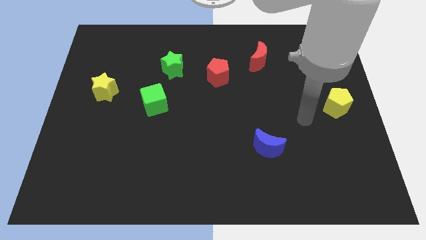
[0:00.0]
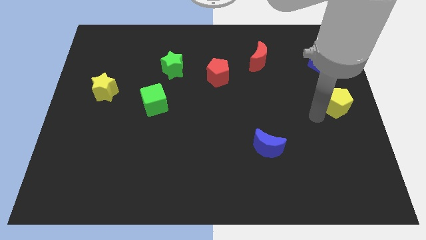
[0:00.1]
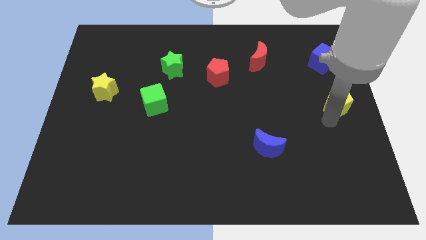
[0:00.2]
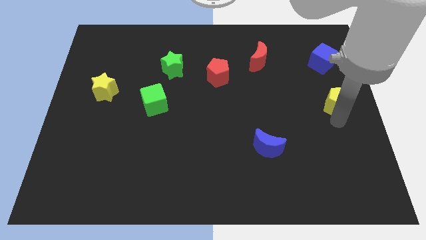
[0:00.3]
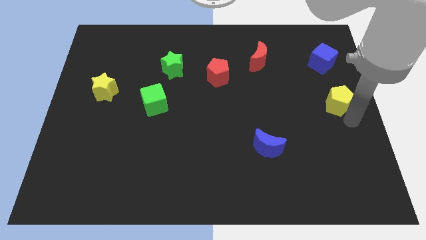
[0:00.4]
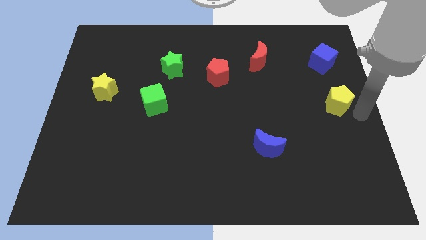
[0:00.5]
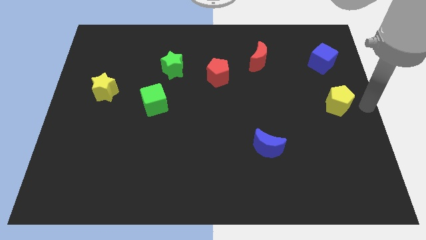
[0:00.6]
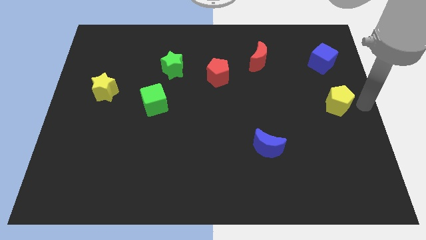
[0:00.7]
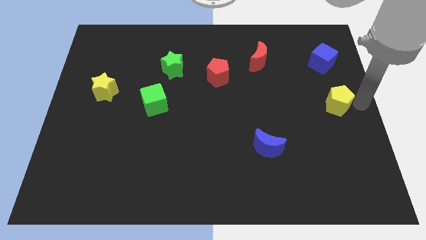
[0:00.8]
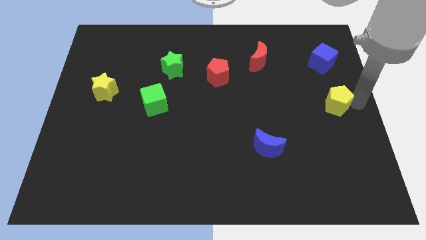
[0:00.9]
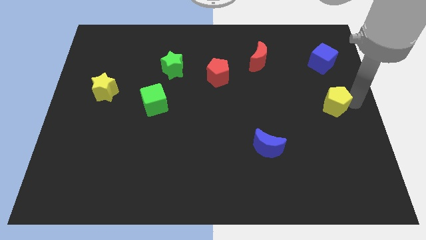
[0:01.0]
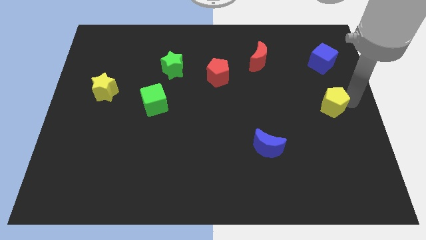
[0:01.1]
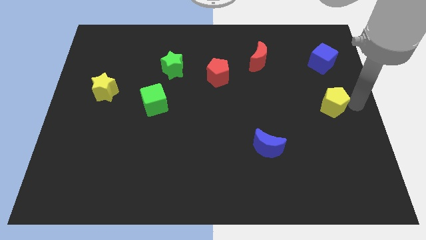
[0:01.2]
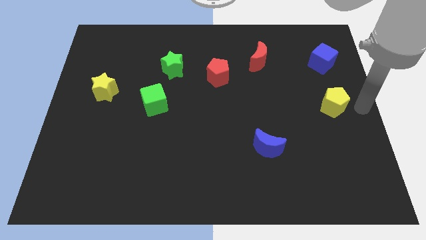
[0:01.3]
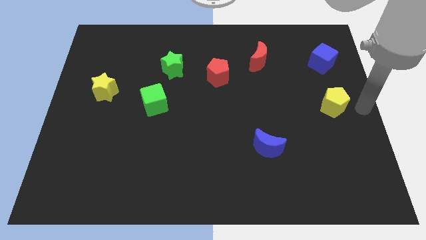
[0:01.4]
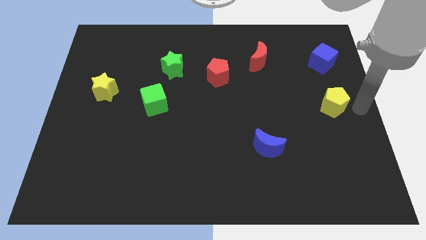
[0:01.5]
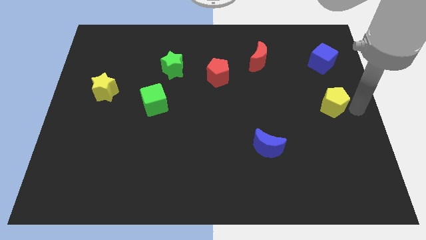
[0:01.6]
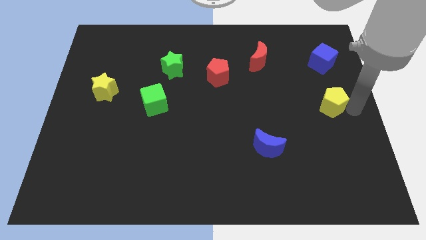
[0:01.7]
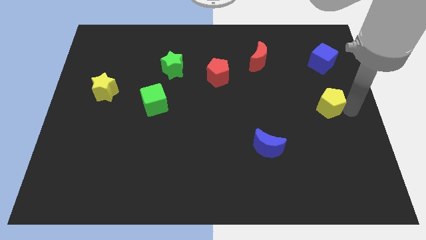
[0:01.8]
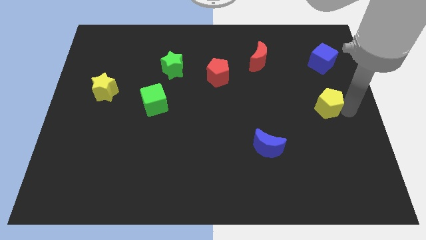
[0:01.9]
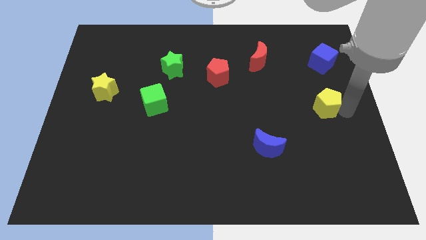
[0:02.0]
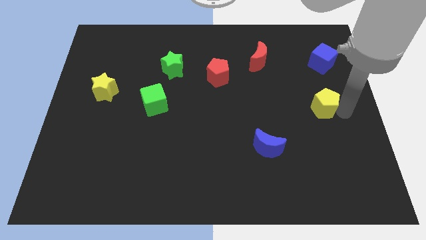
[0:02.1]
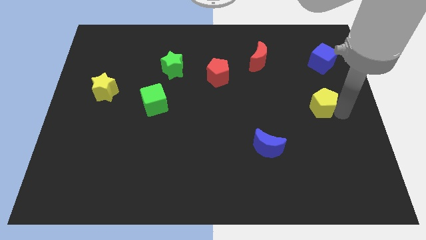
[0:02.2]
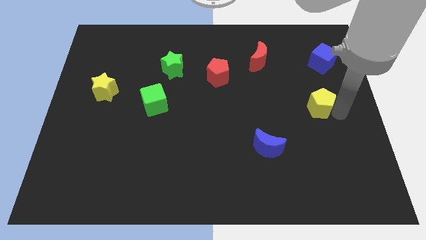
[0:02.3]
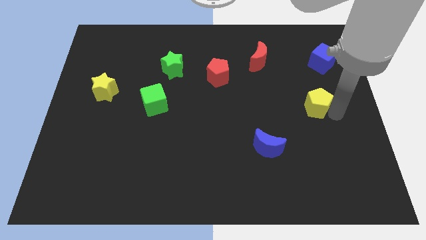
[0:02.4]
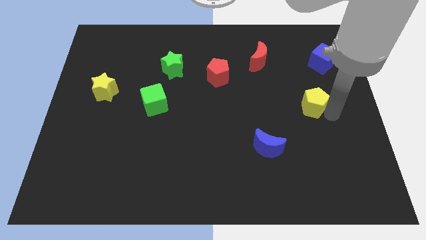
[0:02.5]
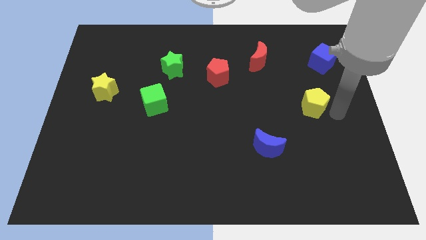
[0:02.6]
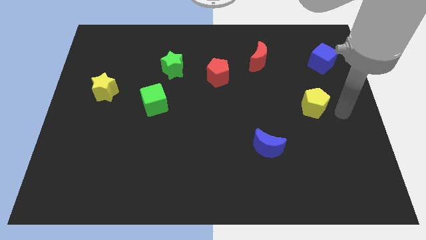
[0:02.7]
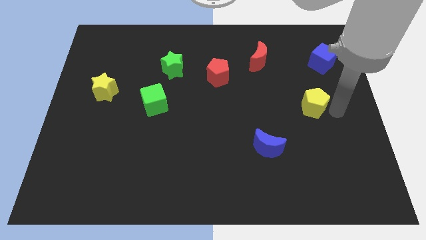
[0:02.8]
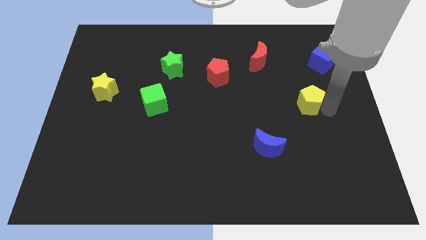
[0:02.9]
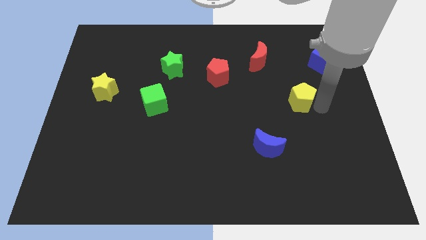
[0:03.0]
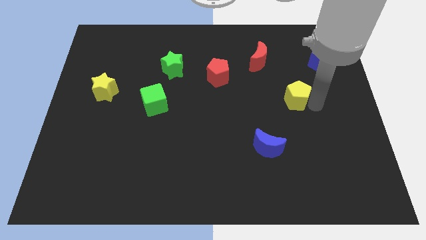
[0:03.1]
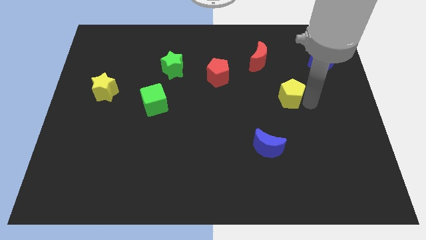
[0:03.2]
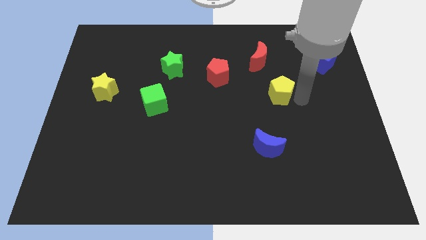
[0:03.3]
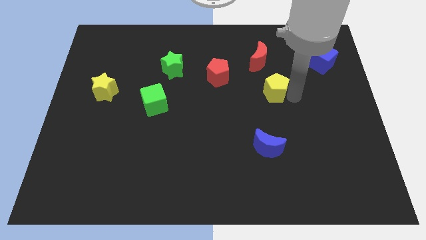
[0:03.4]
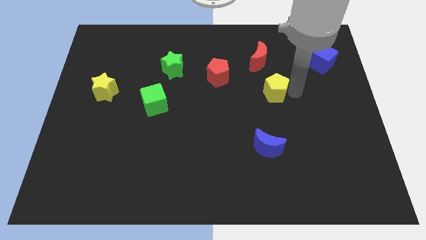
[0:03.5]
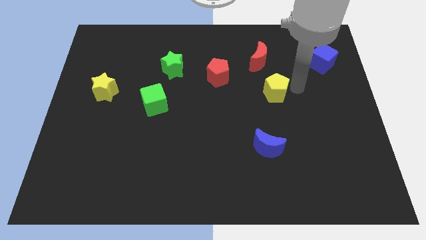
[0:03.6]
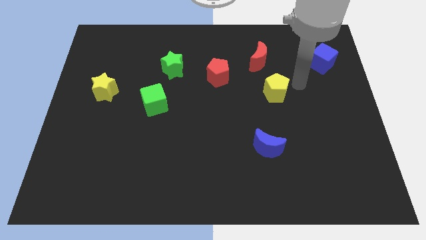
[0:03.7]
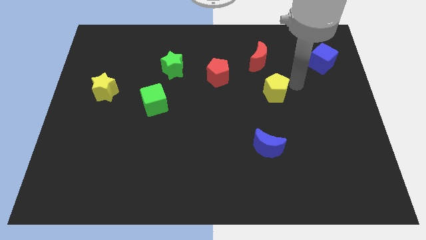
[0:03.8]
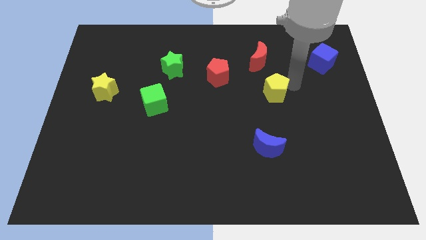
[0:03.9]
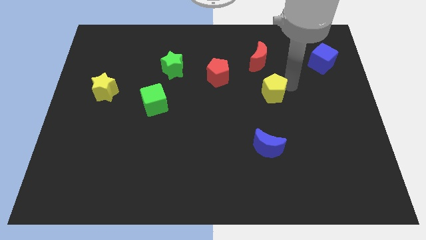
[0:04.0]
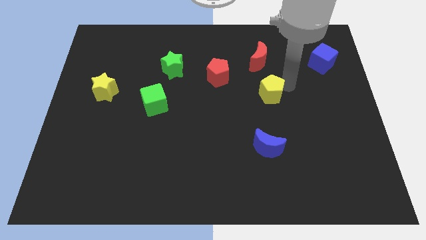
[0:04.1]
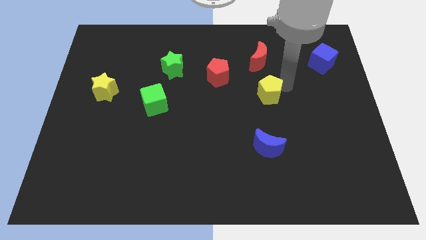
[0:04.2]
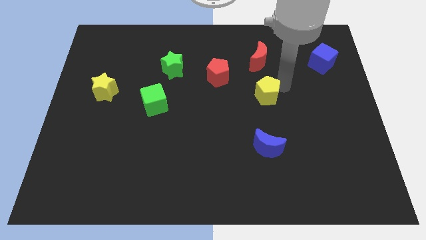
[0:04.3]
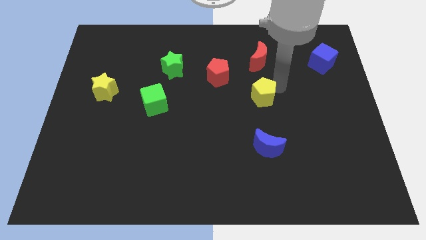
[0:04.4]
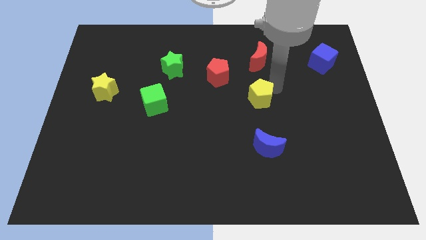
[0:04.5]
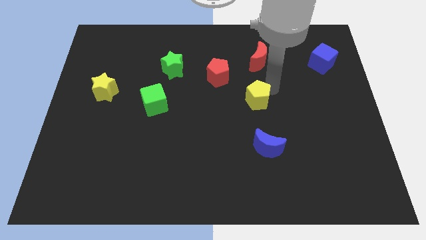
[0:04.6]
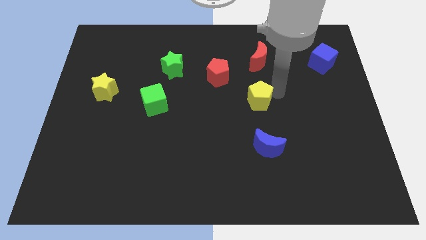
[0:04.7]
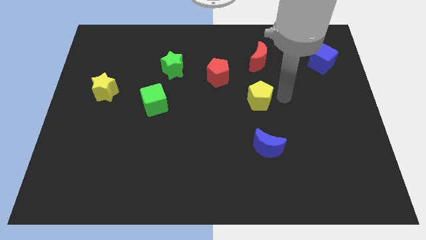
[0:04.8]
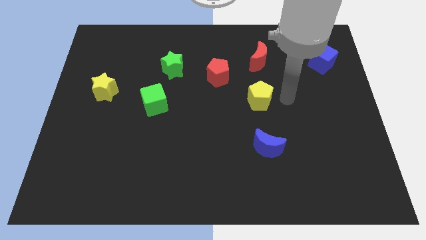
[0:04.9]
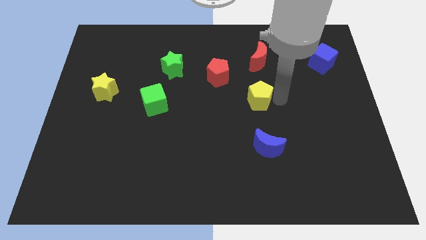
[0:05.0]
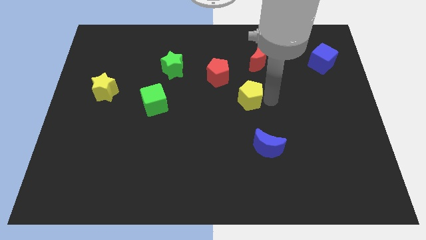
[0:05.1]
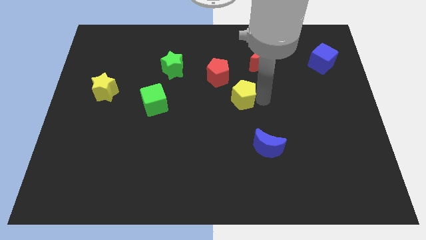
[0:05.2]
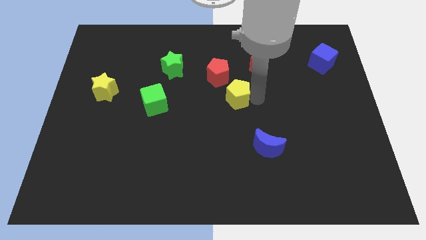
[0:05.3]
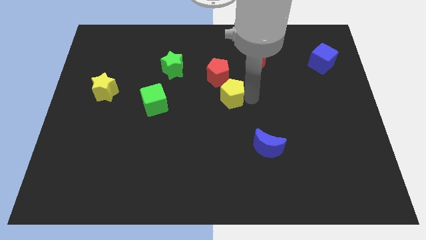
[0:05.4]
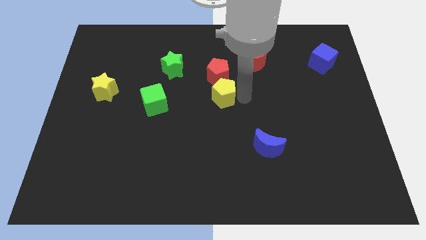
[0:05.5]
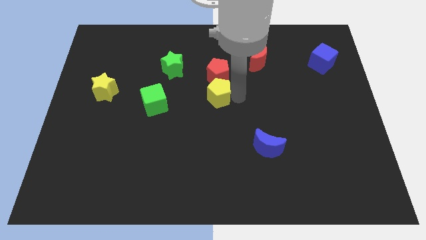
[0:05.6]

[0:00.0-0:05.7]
slide the yellow pentagon to the bottom left of the red pentagon

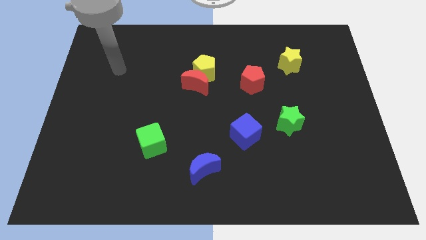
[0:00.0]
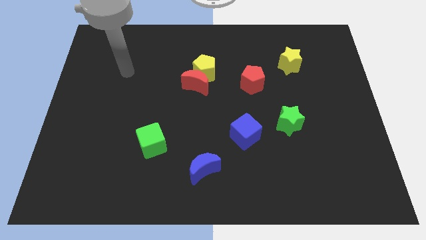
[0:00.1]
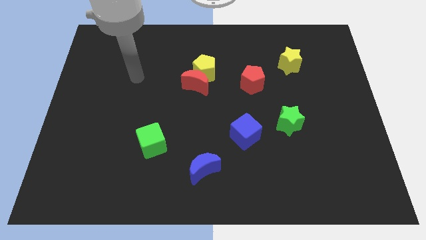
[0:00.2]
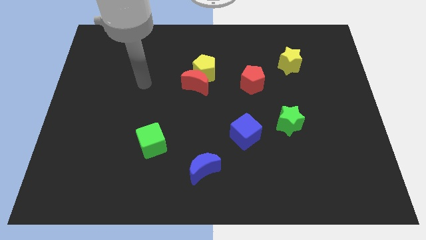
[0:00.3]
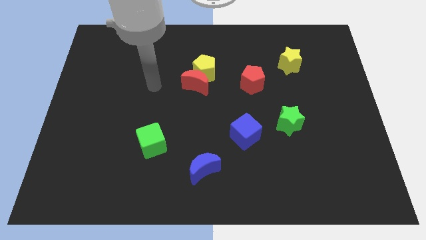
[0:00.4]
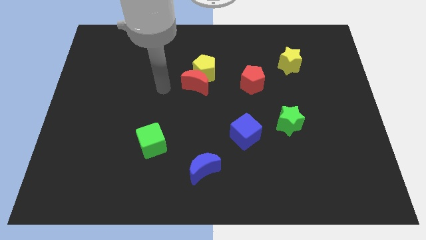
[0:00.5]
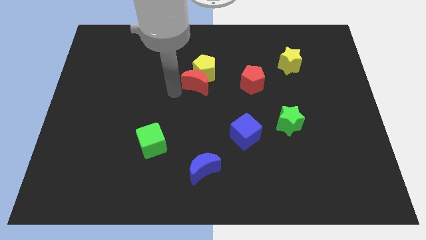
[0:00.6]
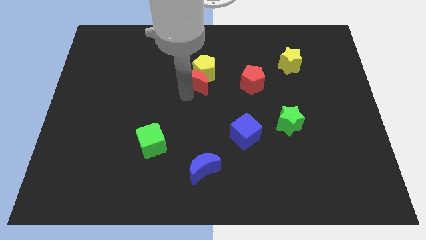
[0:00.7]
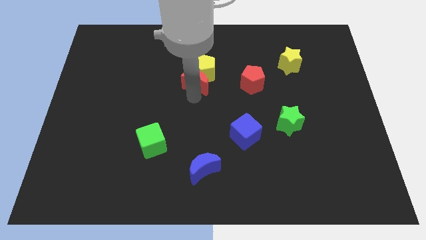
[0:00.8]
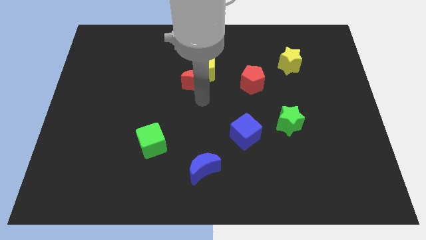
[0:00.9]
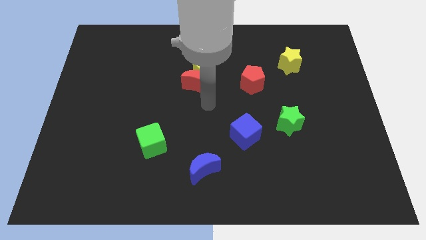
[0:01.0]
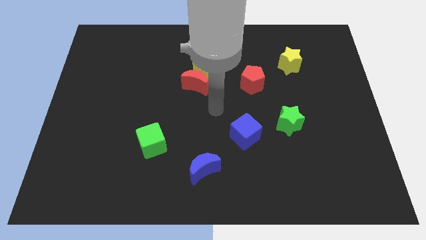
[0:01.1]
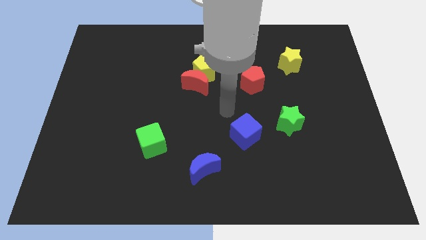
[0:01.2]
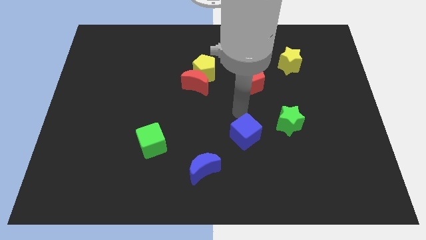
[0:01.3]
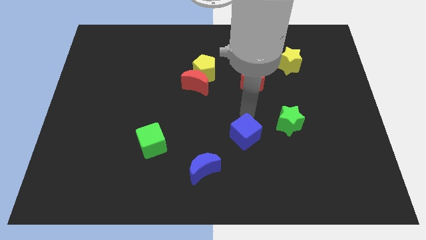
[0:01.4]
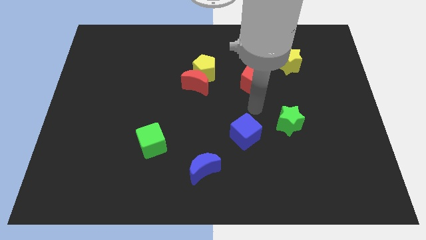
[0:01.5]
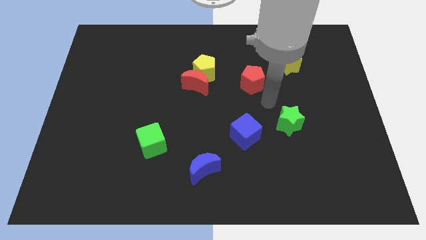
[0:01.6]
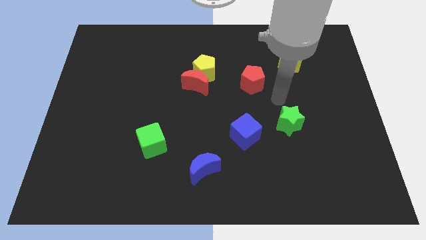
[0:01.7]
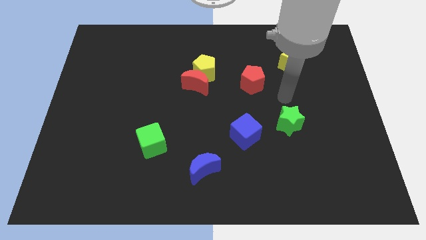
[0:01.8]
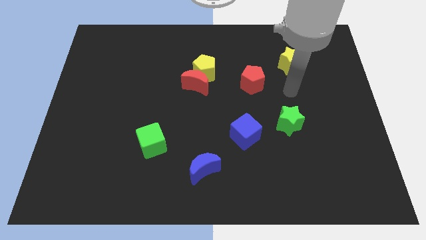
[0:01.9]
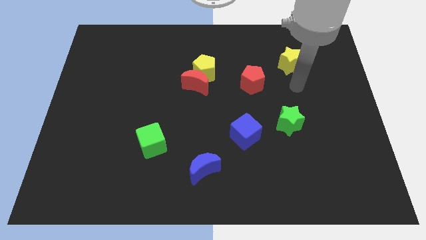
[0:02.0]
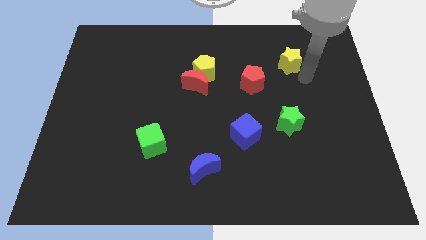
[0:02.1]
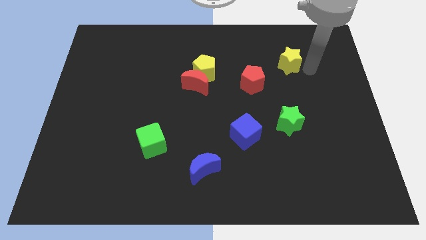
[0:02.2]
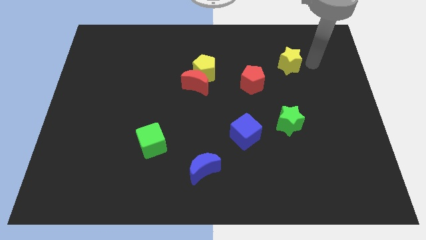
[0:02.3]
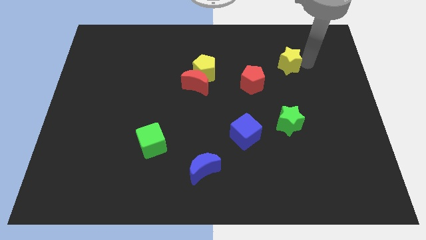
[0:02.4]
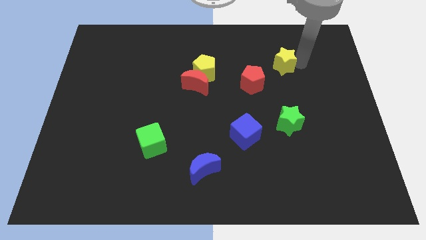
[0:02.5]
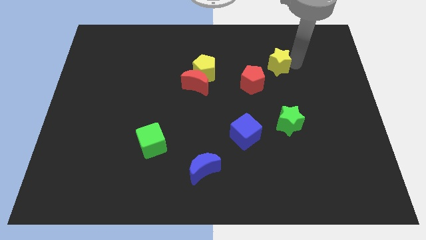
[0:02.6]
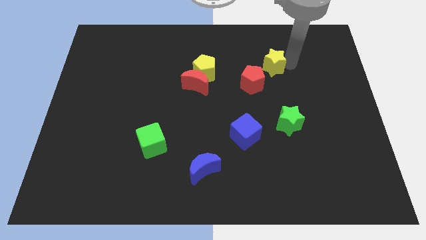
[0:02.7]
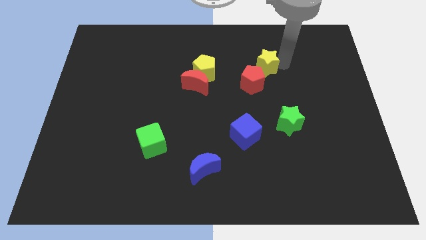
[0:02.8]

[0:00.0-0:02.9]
move the yellow star to the right side of the yellow pentagon
